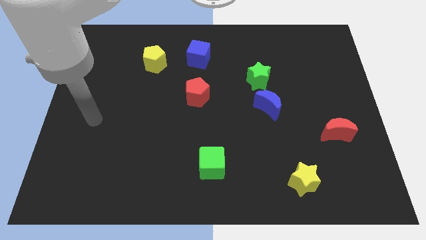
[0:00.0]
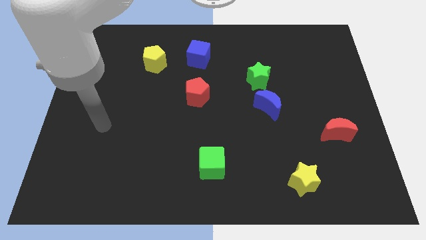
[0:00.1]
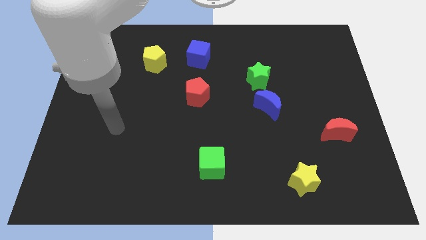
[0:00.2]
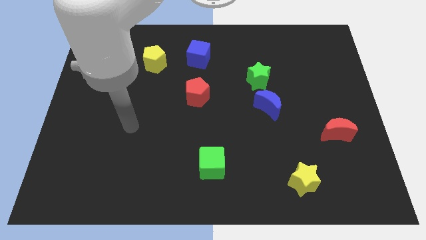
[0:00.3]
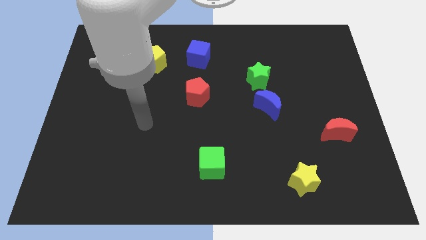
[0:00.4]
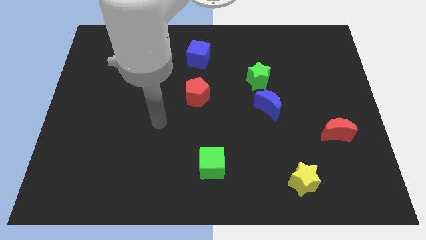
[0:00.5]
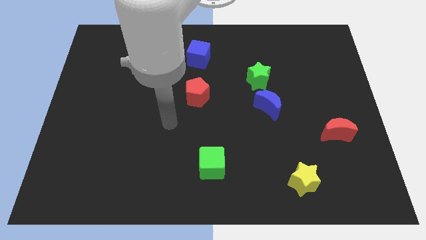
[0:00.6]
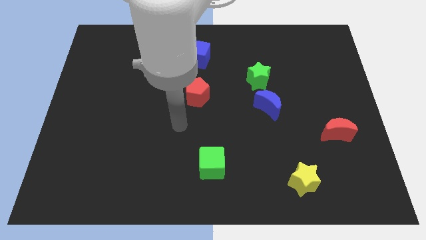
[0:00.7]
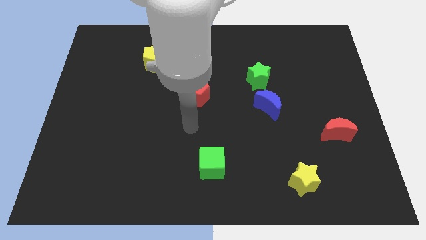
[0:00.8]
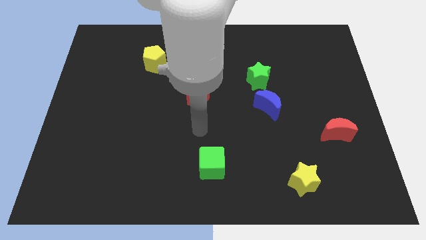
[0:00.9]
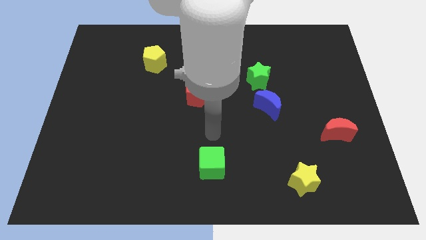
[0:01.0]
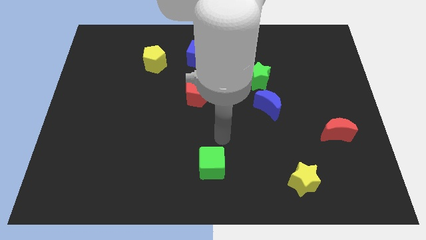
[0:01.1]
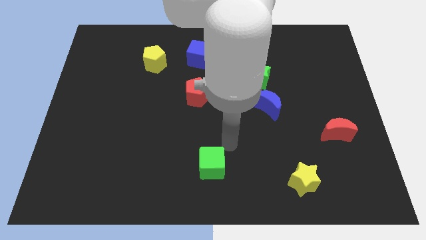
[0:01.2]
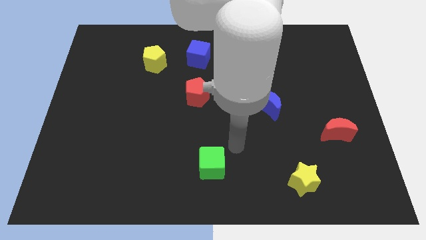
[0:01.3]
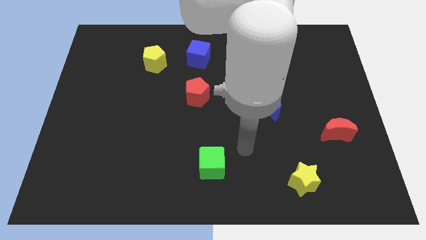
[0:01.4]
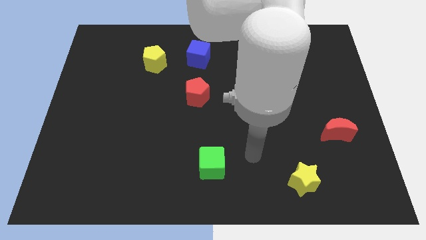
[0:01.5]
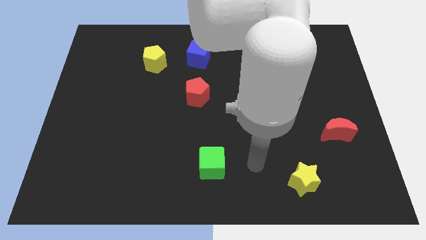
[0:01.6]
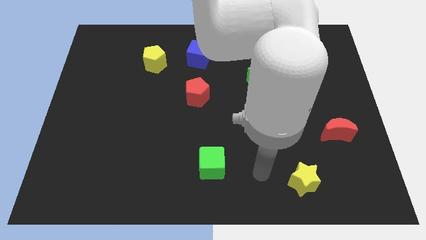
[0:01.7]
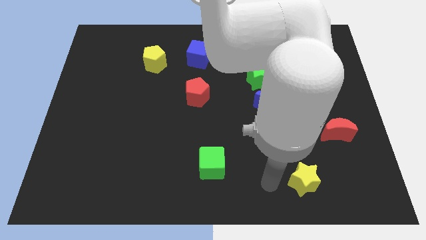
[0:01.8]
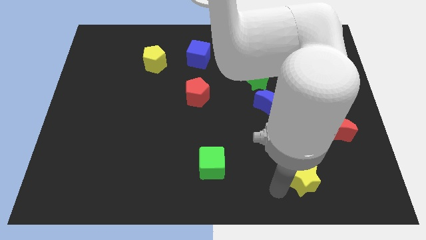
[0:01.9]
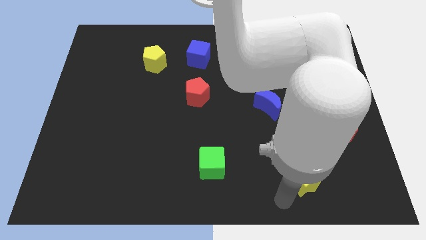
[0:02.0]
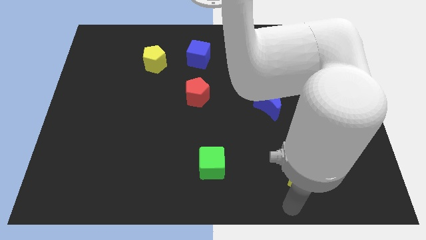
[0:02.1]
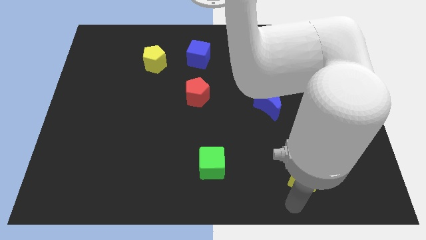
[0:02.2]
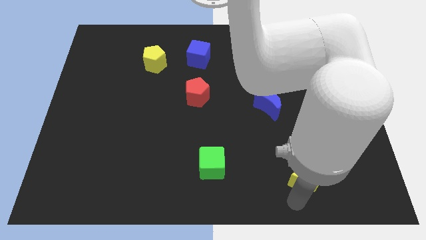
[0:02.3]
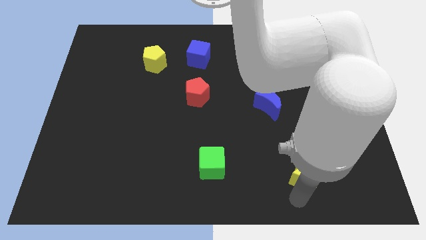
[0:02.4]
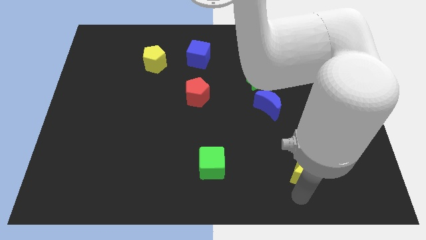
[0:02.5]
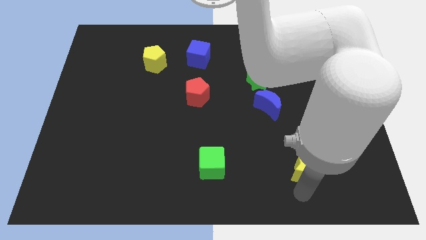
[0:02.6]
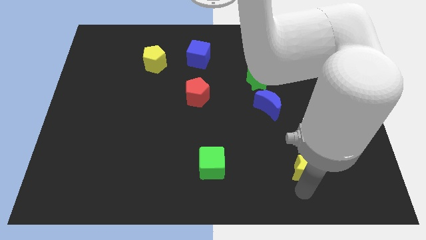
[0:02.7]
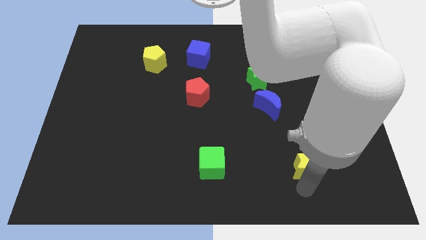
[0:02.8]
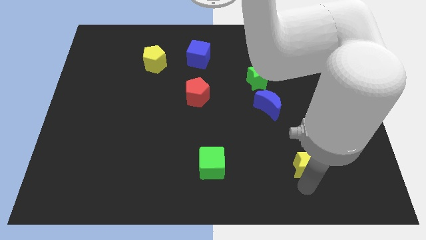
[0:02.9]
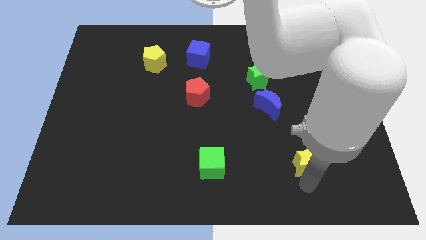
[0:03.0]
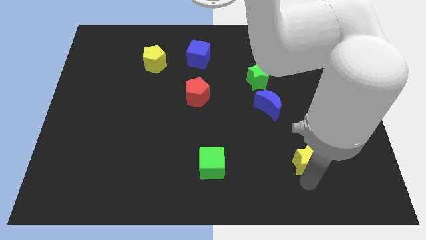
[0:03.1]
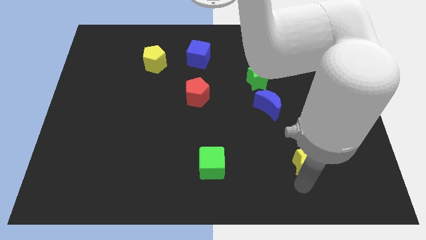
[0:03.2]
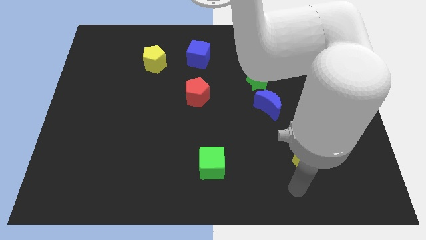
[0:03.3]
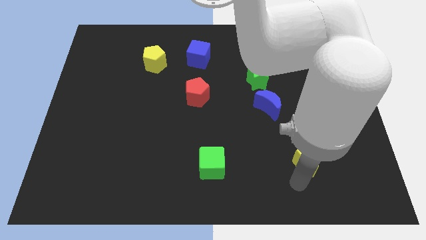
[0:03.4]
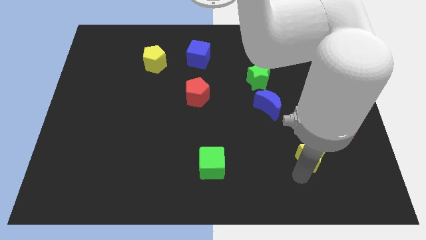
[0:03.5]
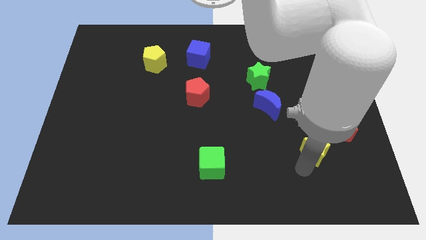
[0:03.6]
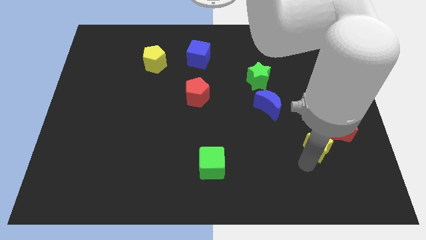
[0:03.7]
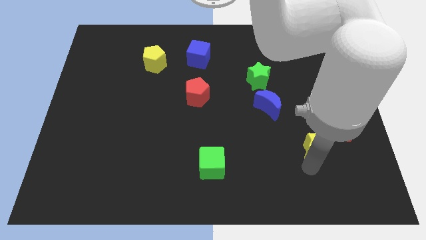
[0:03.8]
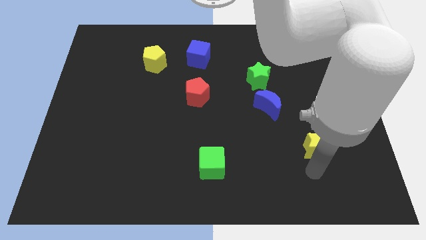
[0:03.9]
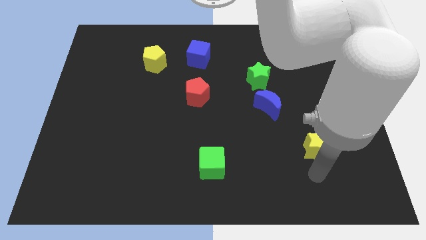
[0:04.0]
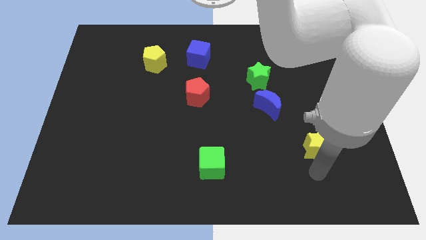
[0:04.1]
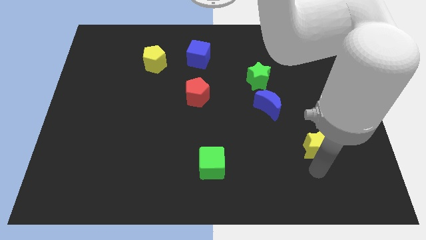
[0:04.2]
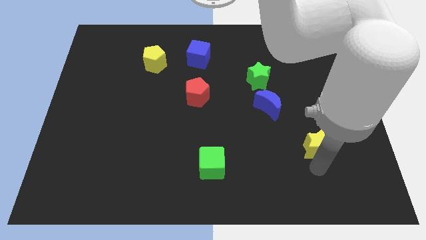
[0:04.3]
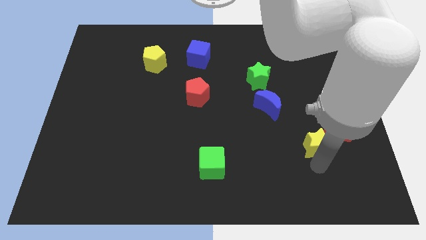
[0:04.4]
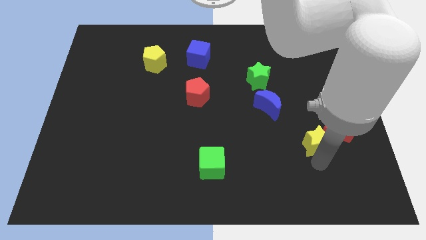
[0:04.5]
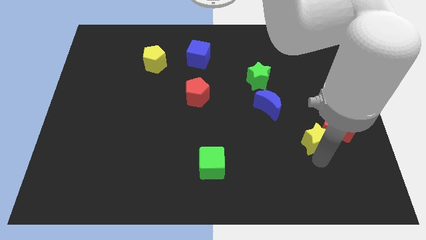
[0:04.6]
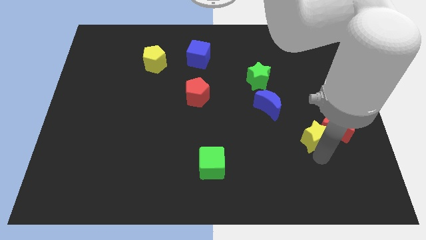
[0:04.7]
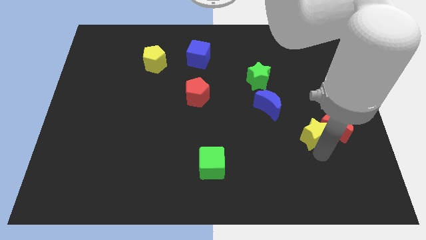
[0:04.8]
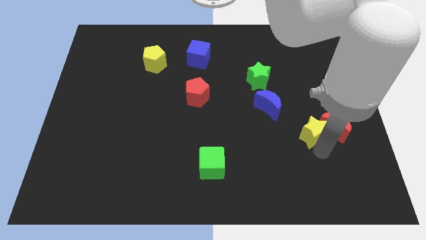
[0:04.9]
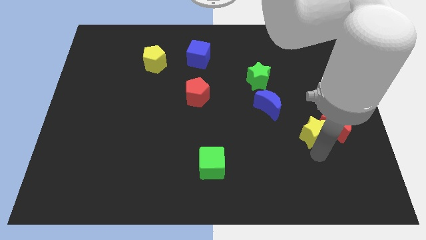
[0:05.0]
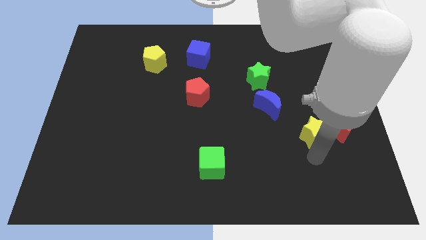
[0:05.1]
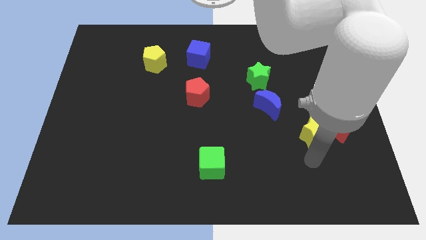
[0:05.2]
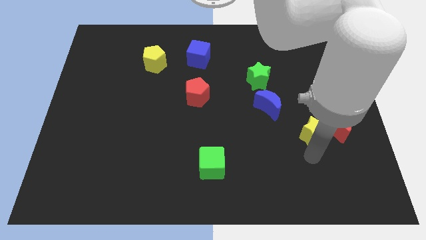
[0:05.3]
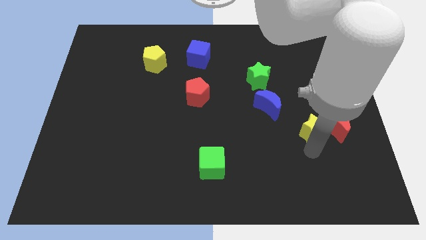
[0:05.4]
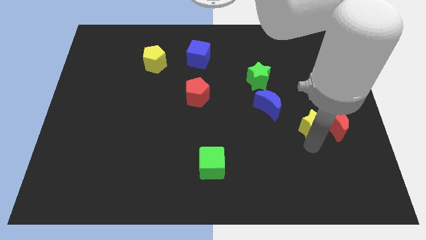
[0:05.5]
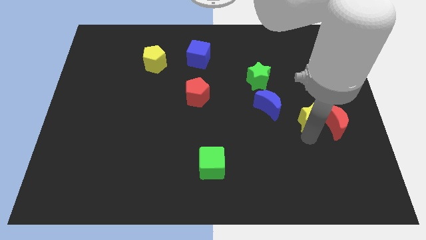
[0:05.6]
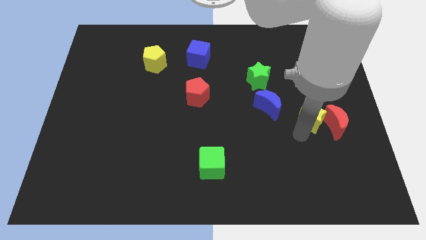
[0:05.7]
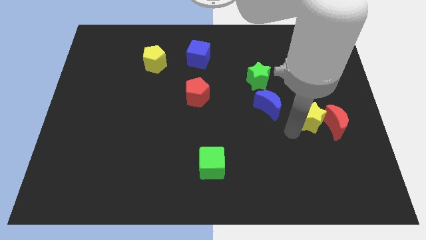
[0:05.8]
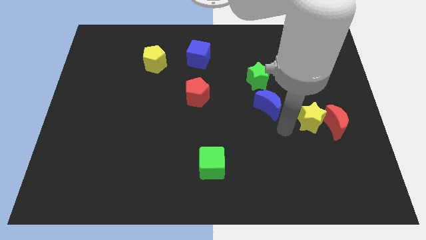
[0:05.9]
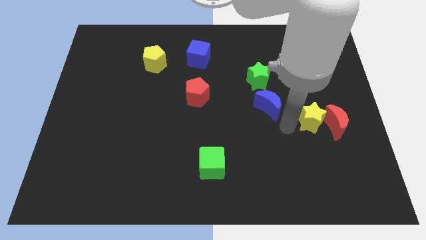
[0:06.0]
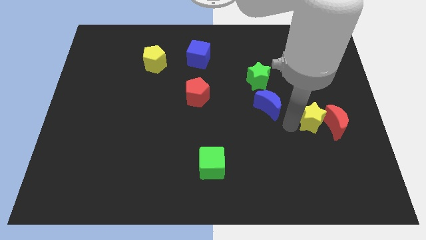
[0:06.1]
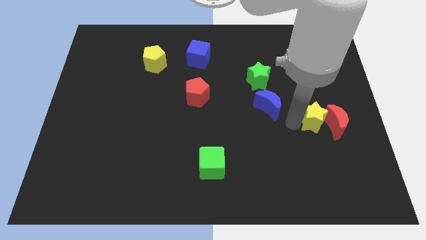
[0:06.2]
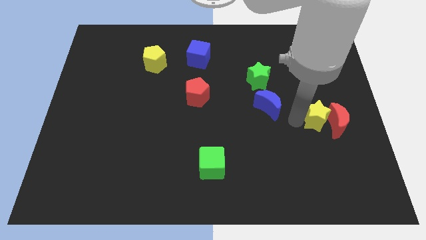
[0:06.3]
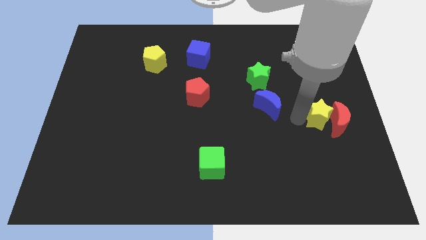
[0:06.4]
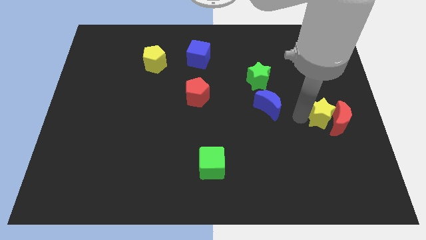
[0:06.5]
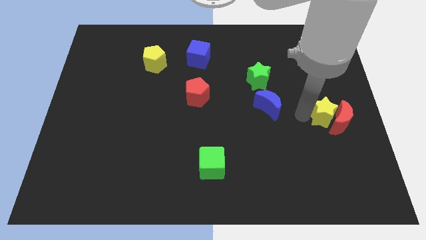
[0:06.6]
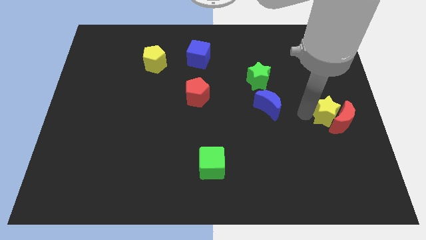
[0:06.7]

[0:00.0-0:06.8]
slide the yellow star to the center right

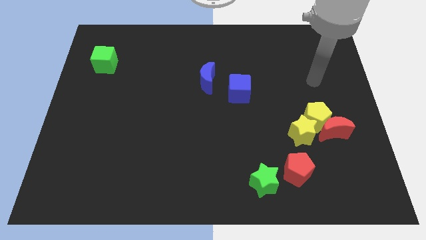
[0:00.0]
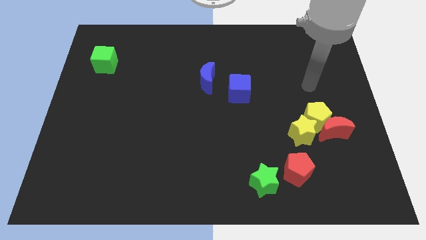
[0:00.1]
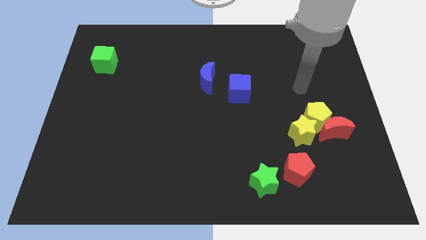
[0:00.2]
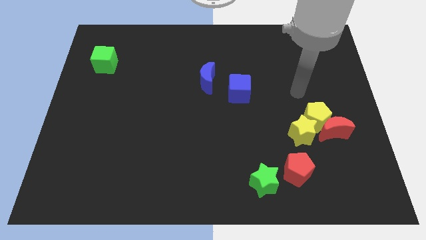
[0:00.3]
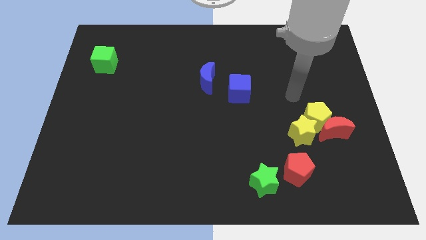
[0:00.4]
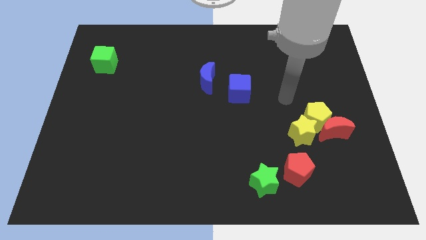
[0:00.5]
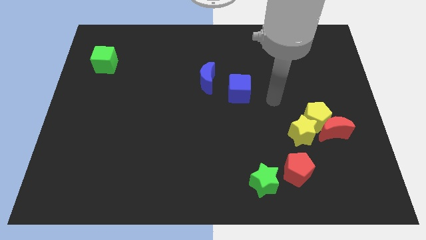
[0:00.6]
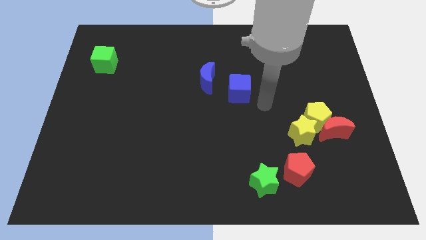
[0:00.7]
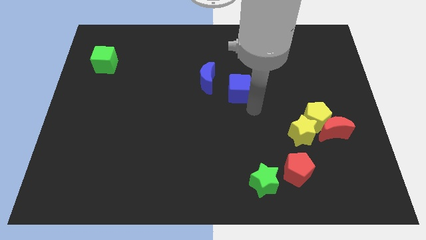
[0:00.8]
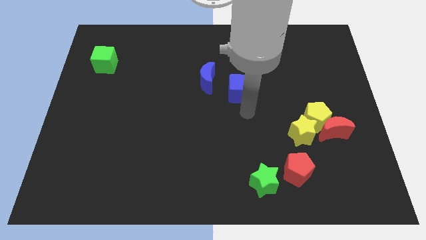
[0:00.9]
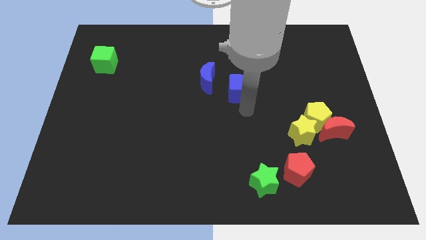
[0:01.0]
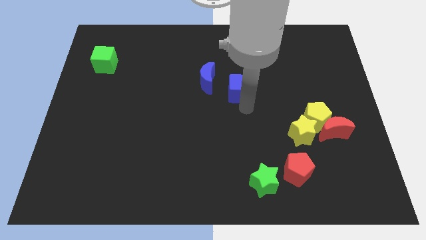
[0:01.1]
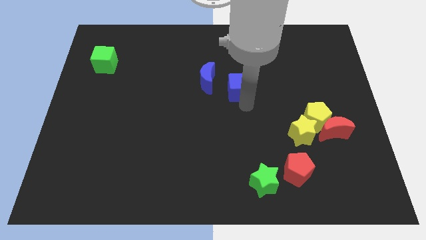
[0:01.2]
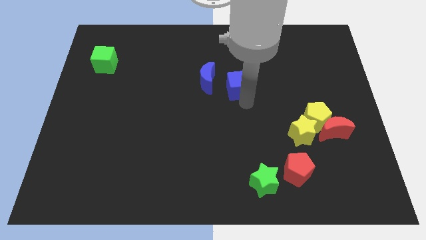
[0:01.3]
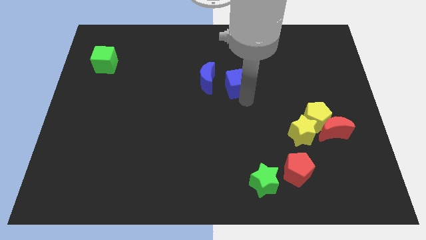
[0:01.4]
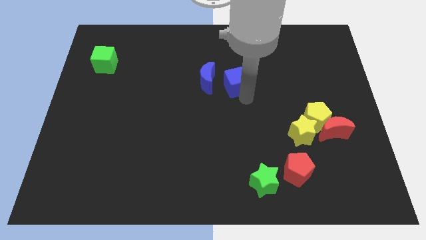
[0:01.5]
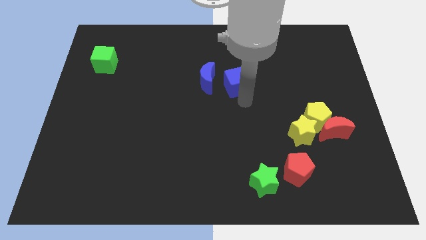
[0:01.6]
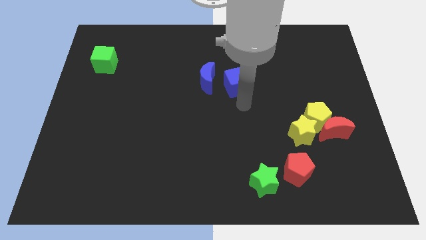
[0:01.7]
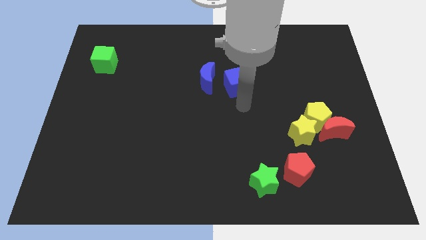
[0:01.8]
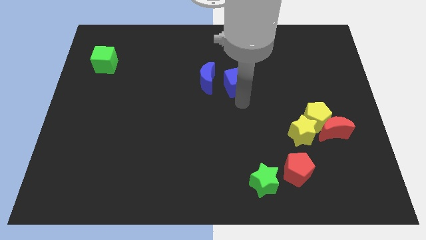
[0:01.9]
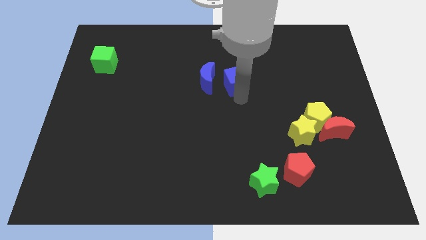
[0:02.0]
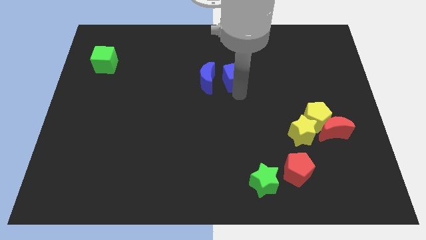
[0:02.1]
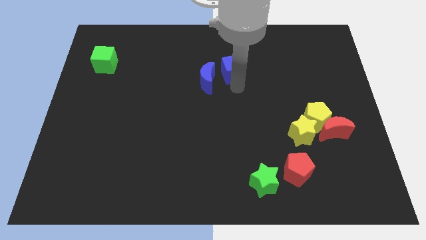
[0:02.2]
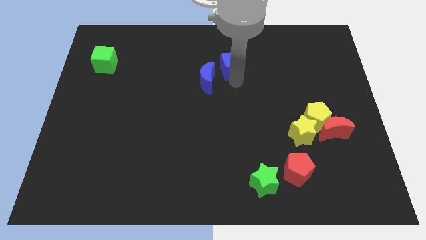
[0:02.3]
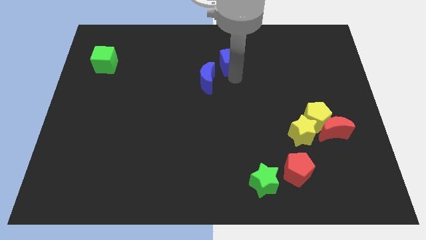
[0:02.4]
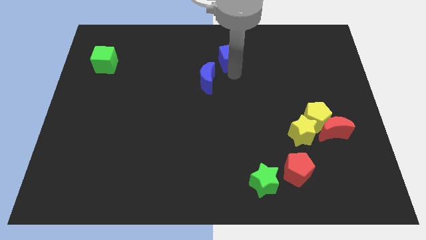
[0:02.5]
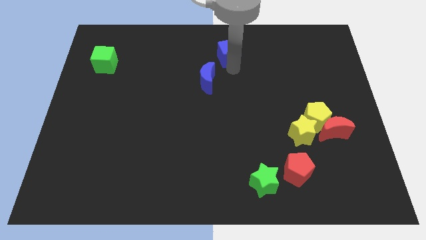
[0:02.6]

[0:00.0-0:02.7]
move the blue cube to the towards your base
